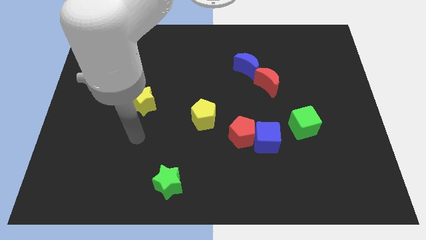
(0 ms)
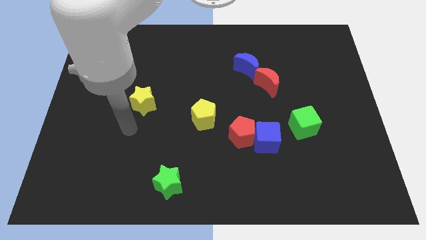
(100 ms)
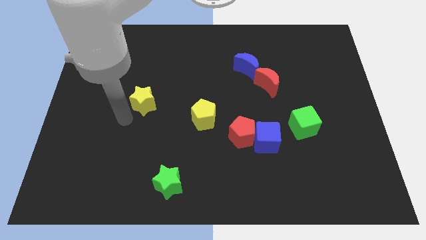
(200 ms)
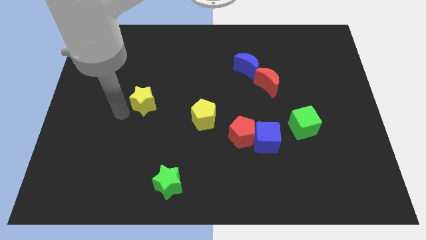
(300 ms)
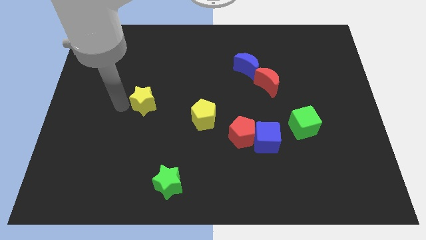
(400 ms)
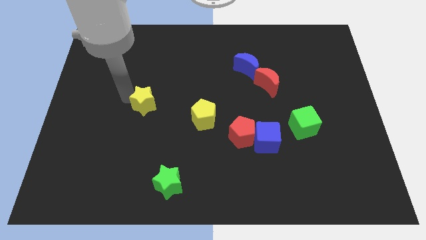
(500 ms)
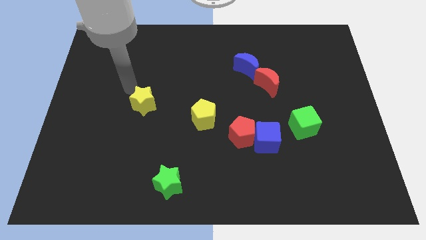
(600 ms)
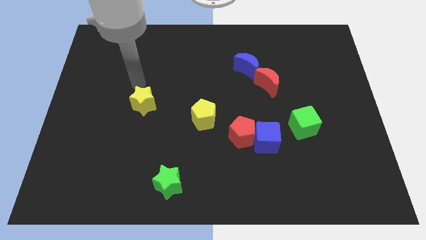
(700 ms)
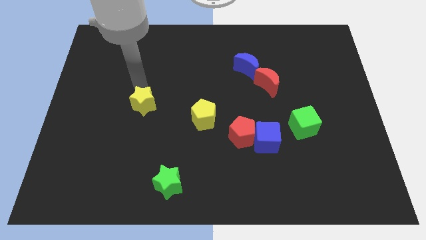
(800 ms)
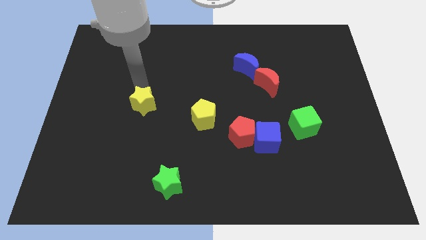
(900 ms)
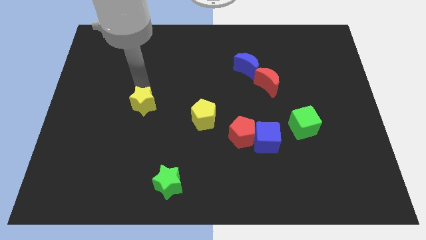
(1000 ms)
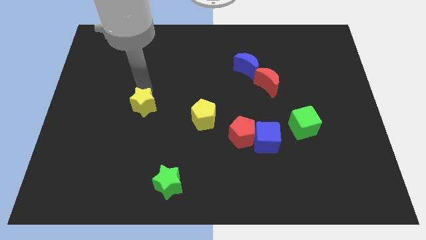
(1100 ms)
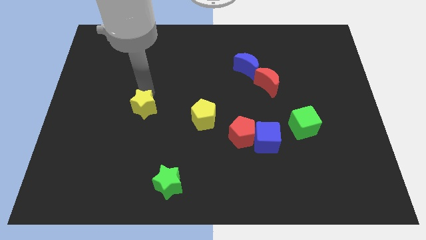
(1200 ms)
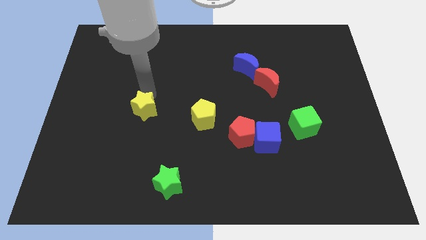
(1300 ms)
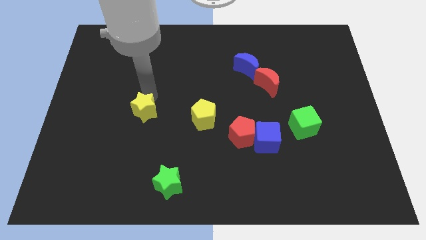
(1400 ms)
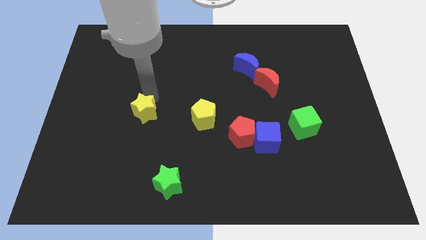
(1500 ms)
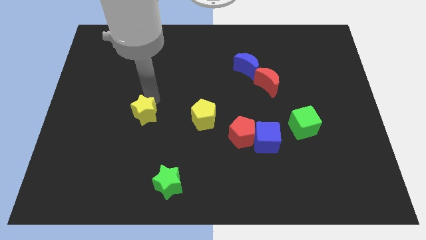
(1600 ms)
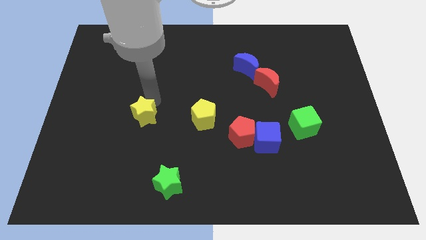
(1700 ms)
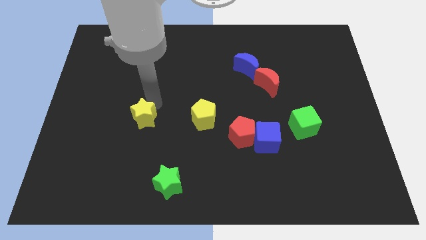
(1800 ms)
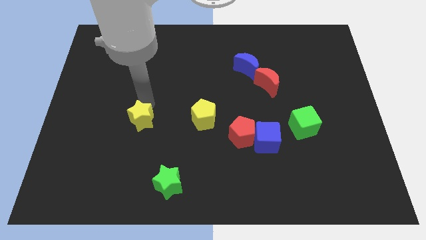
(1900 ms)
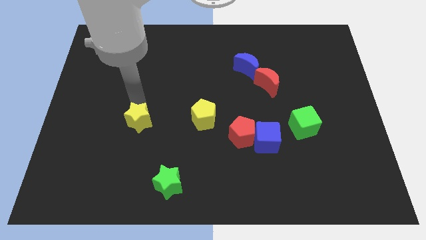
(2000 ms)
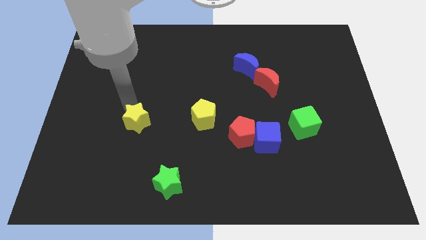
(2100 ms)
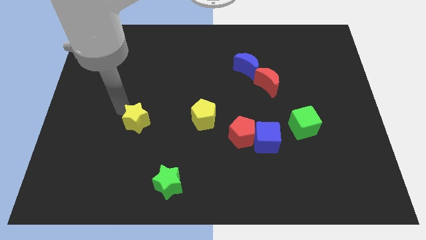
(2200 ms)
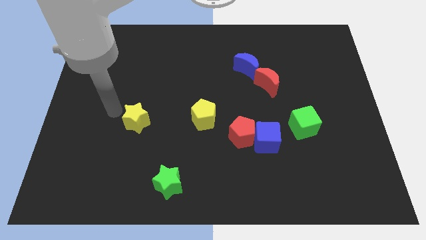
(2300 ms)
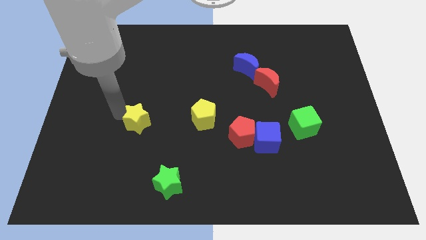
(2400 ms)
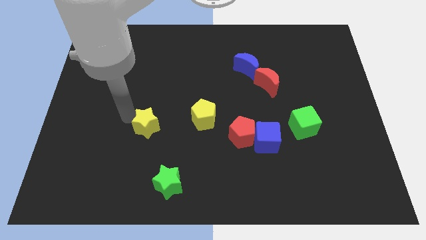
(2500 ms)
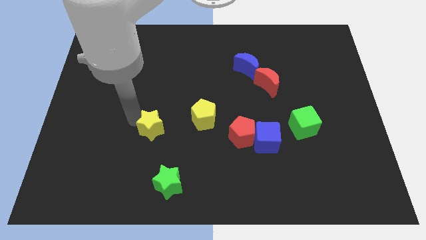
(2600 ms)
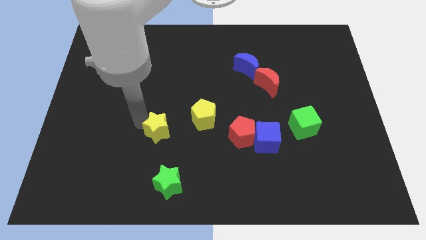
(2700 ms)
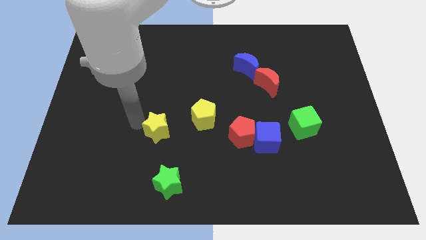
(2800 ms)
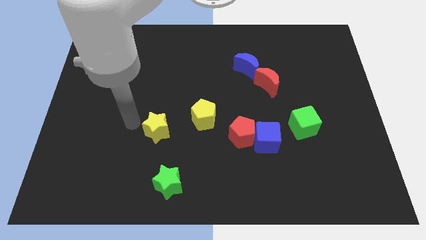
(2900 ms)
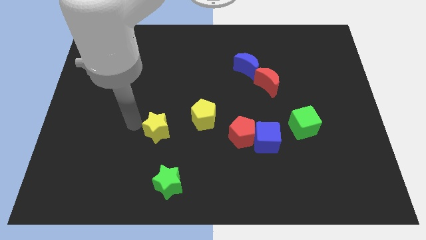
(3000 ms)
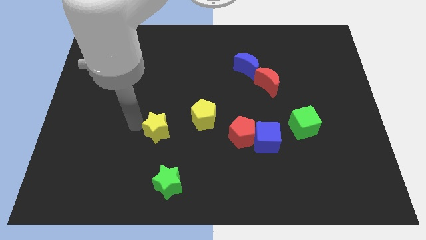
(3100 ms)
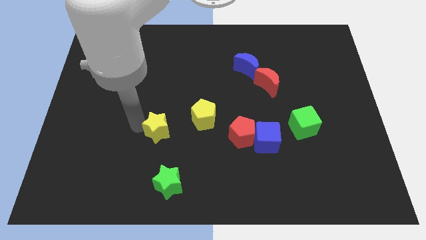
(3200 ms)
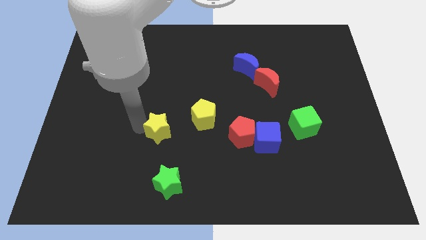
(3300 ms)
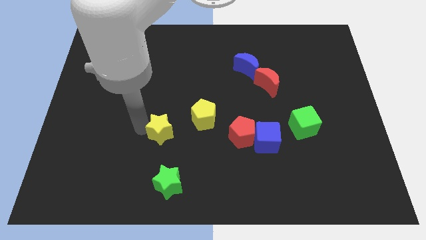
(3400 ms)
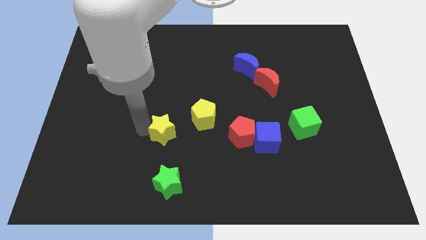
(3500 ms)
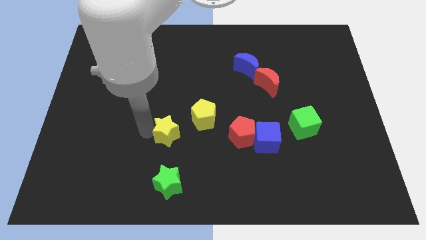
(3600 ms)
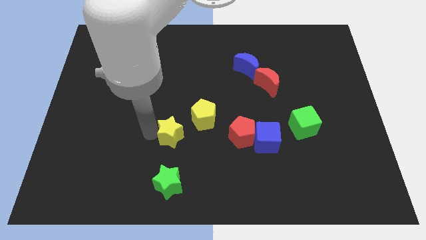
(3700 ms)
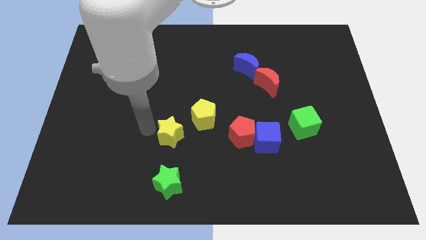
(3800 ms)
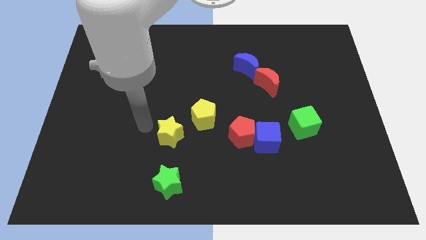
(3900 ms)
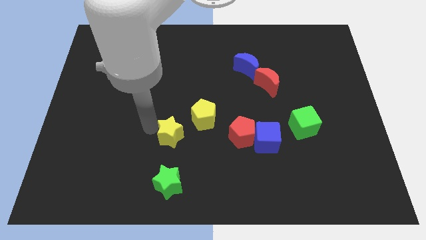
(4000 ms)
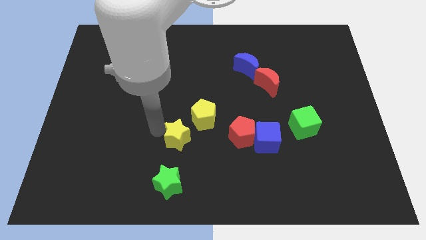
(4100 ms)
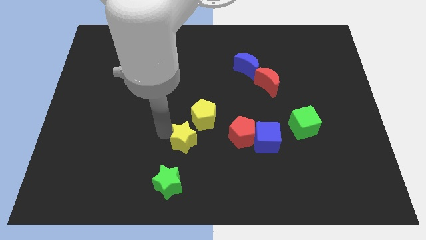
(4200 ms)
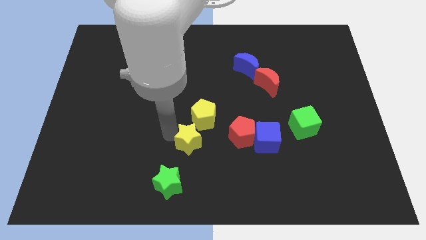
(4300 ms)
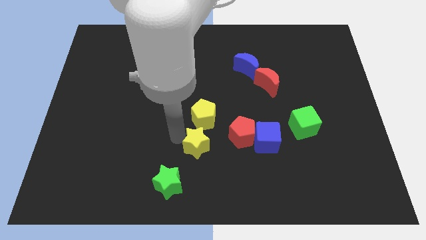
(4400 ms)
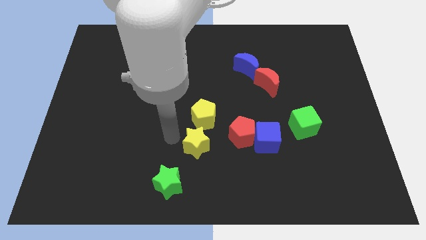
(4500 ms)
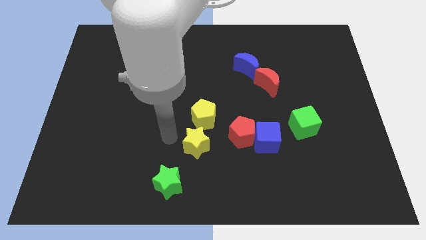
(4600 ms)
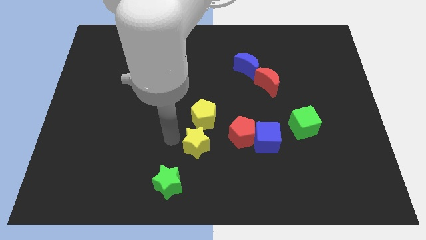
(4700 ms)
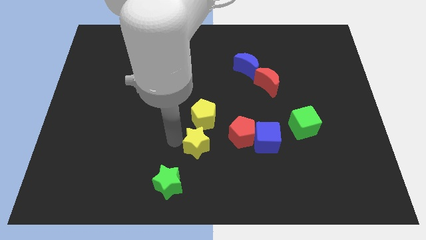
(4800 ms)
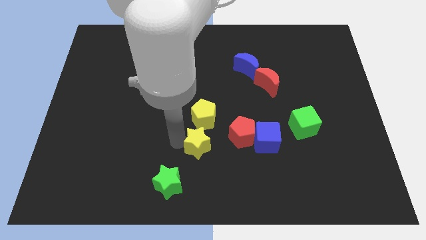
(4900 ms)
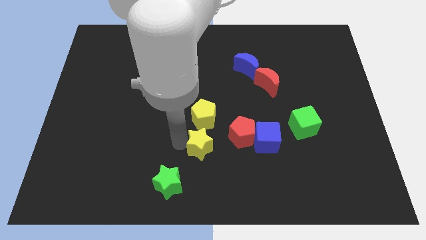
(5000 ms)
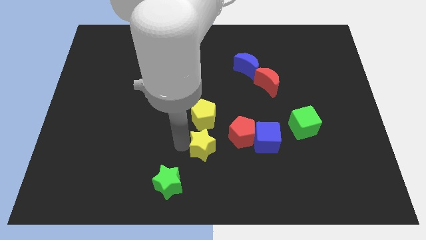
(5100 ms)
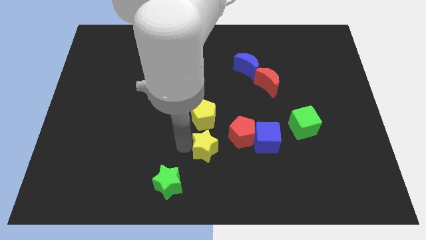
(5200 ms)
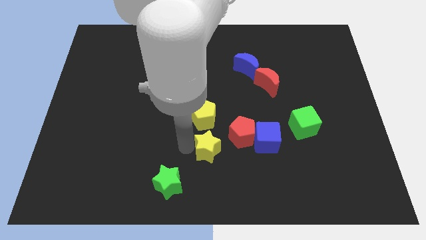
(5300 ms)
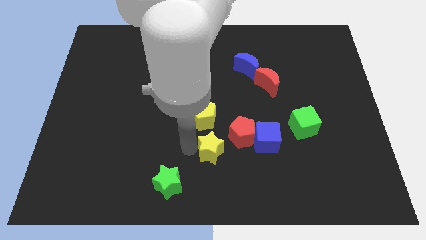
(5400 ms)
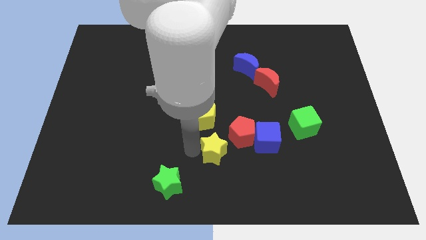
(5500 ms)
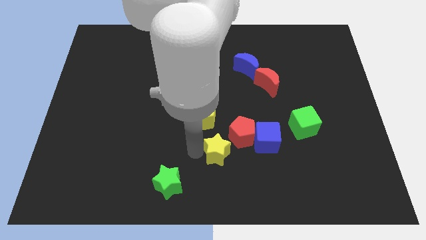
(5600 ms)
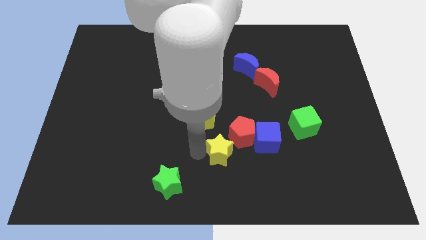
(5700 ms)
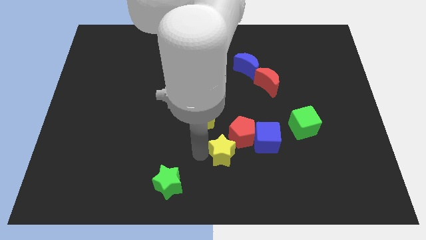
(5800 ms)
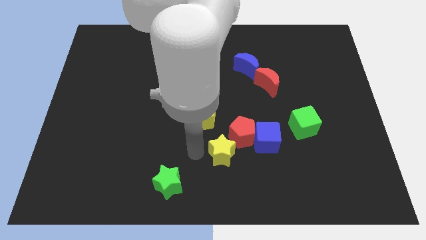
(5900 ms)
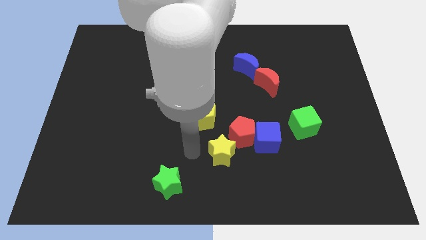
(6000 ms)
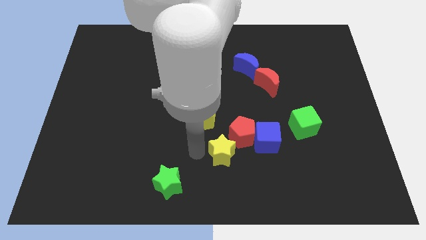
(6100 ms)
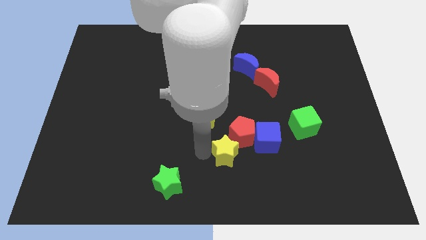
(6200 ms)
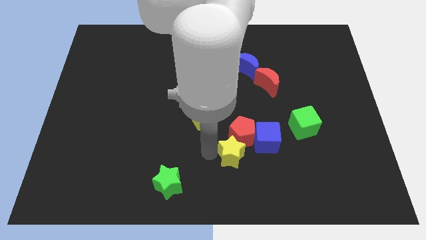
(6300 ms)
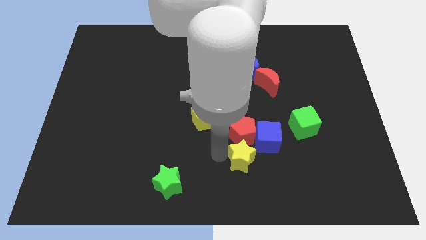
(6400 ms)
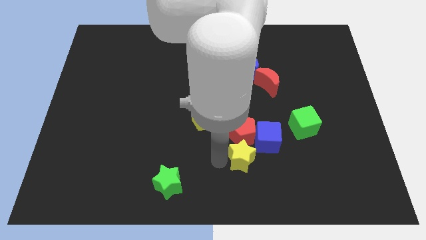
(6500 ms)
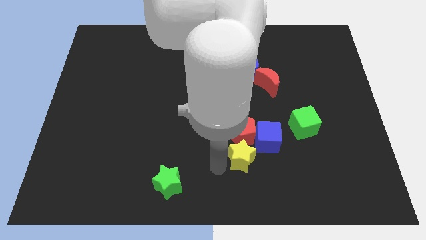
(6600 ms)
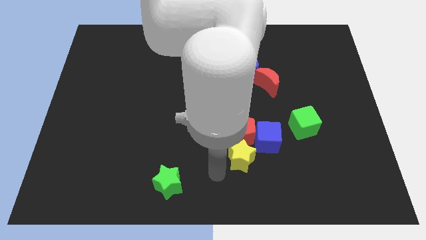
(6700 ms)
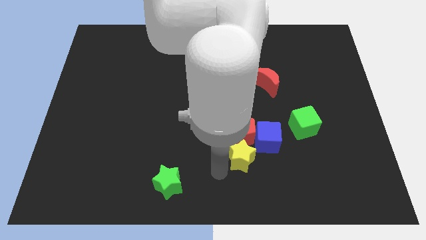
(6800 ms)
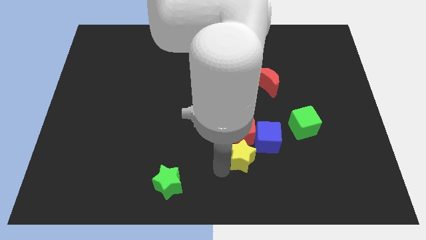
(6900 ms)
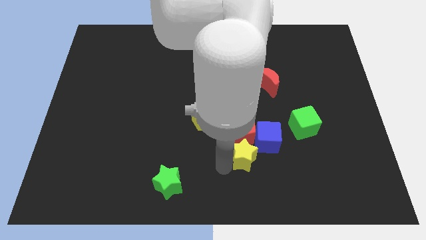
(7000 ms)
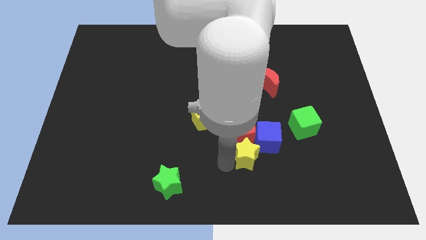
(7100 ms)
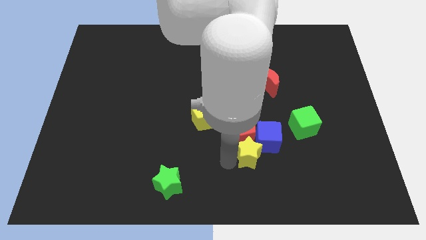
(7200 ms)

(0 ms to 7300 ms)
move the yellow star towards the blue cube

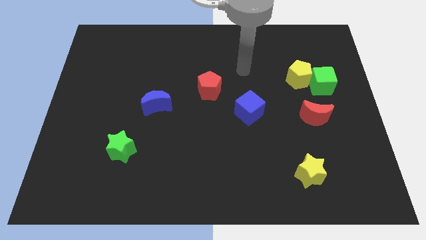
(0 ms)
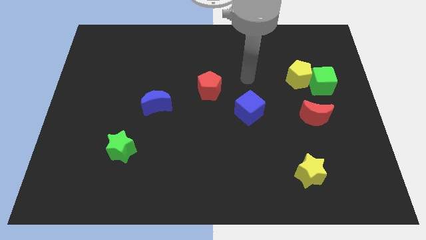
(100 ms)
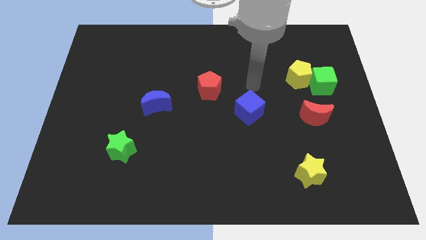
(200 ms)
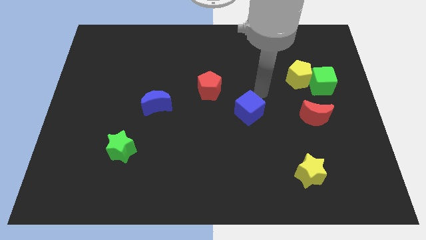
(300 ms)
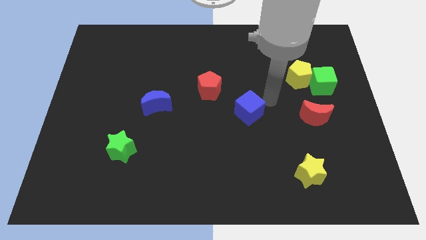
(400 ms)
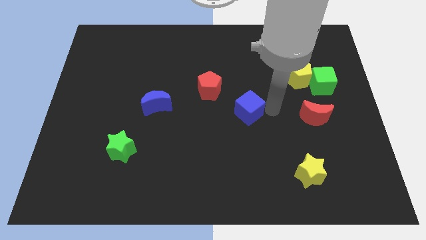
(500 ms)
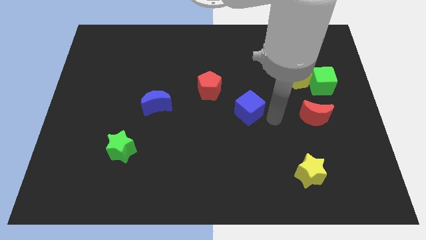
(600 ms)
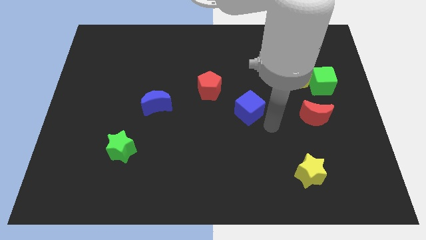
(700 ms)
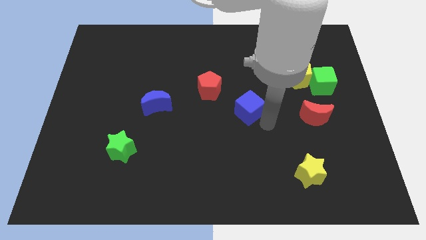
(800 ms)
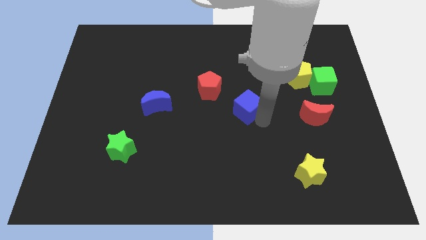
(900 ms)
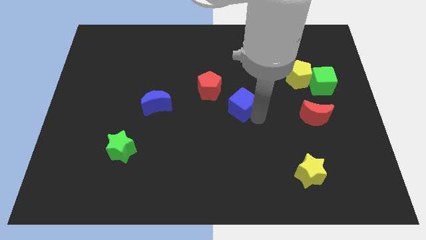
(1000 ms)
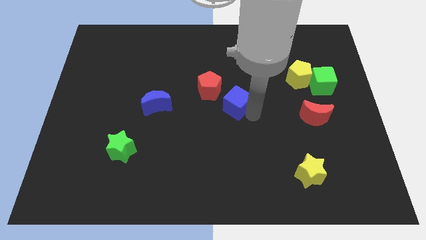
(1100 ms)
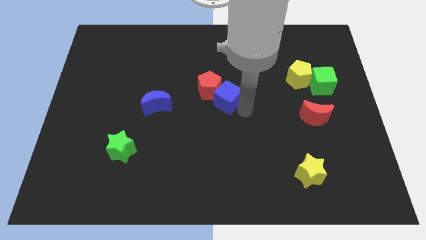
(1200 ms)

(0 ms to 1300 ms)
slide the blue cube to the red pentagon
